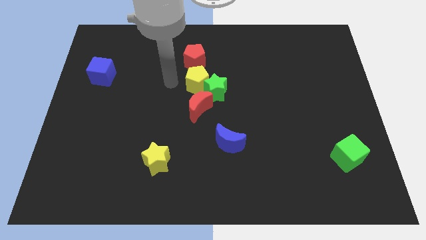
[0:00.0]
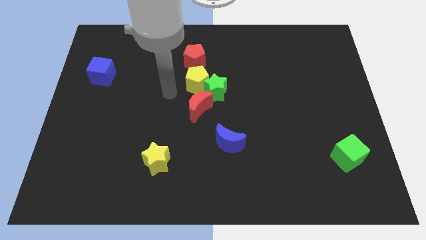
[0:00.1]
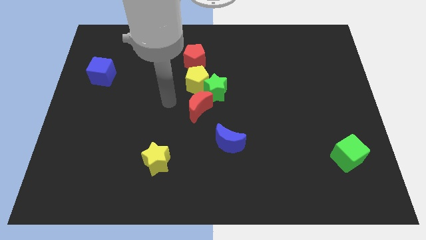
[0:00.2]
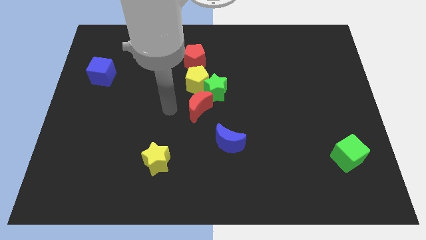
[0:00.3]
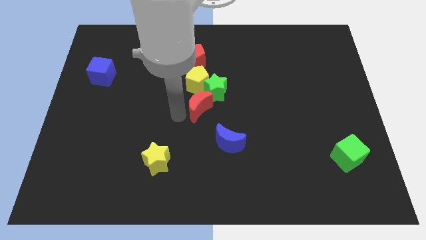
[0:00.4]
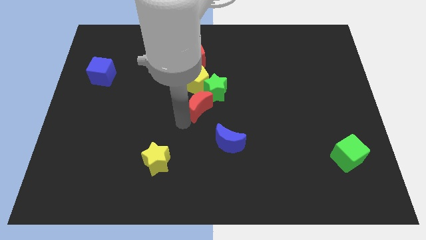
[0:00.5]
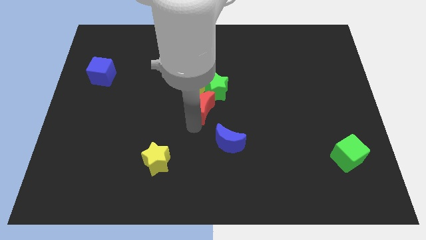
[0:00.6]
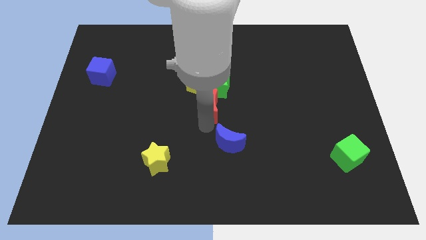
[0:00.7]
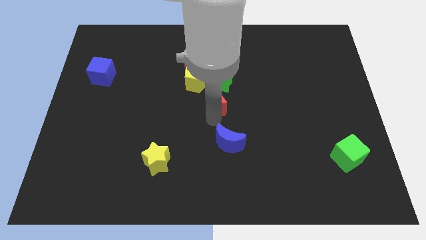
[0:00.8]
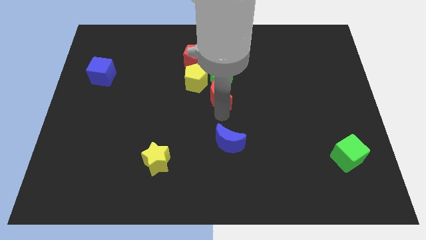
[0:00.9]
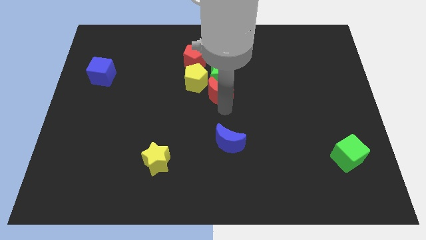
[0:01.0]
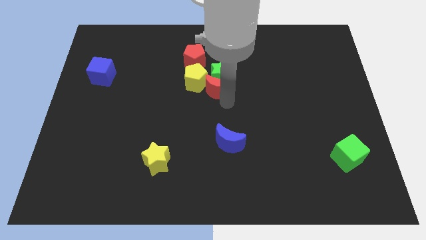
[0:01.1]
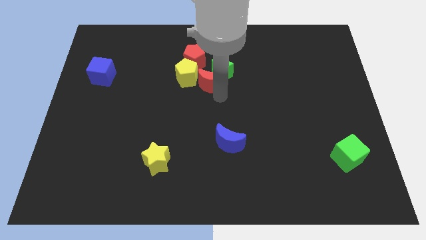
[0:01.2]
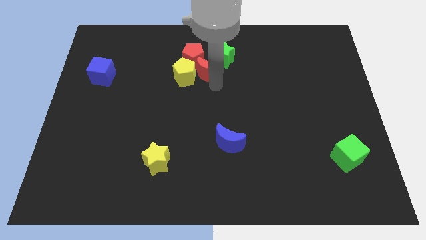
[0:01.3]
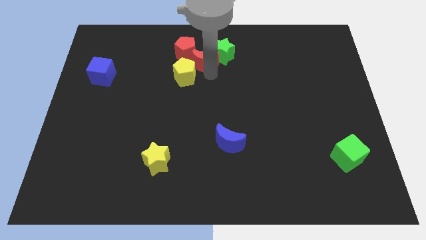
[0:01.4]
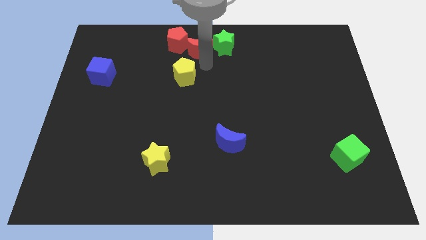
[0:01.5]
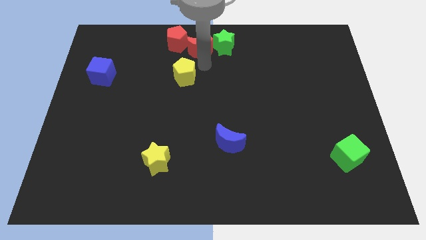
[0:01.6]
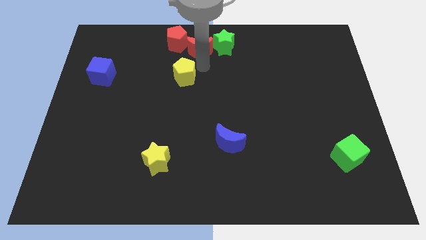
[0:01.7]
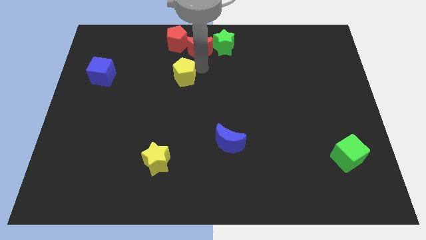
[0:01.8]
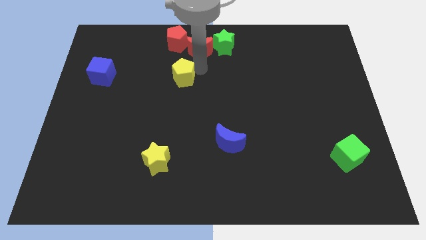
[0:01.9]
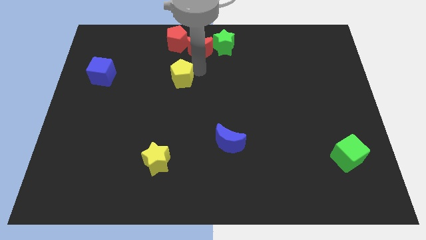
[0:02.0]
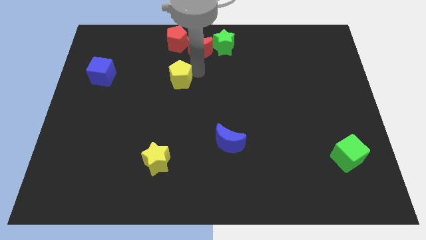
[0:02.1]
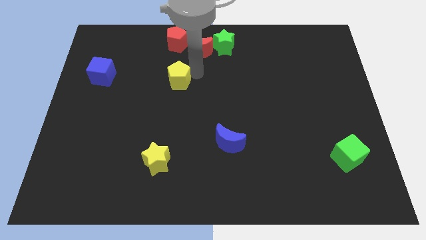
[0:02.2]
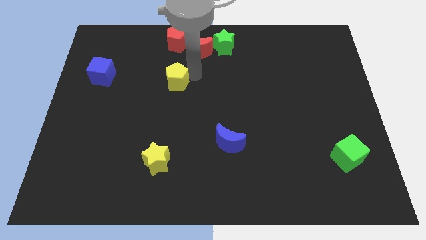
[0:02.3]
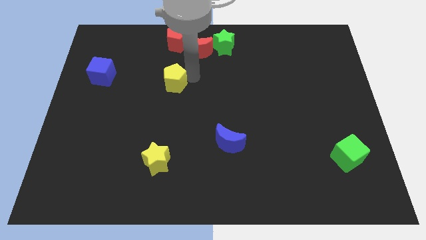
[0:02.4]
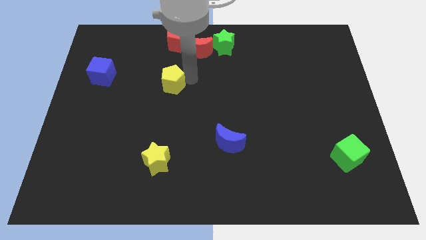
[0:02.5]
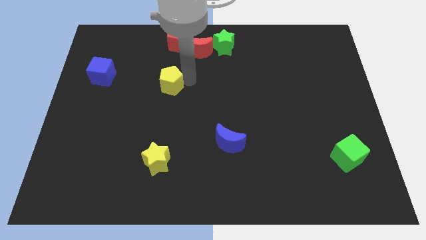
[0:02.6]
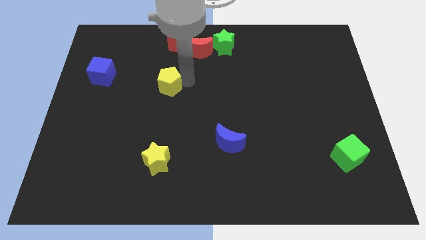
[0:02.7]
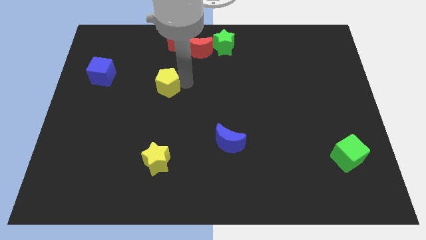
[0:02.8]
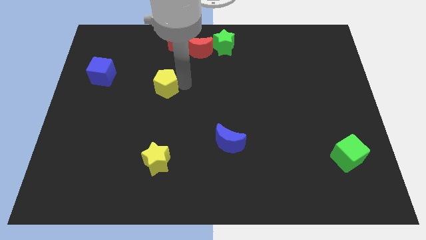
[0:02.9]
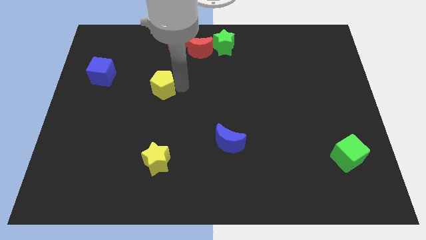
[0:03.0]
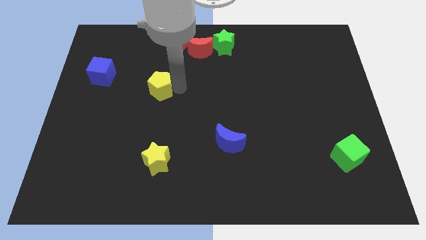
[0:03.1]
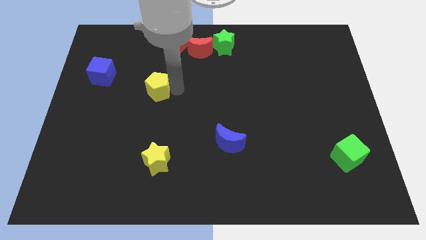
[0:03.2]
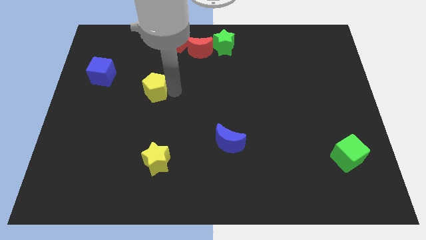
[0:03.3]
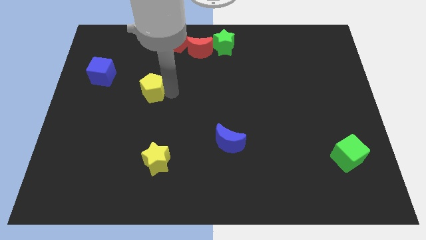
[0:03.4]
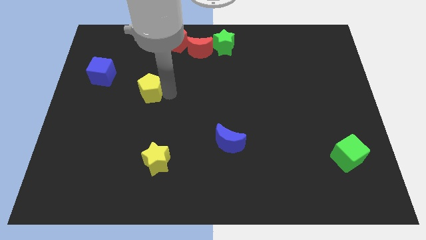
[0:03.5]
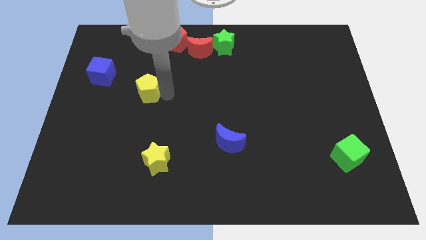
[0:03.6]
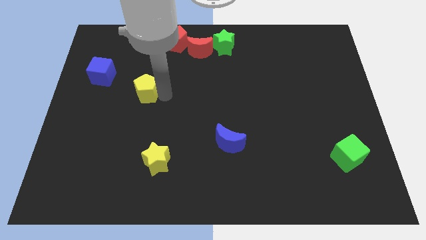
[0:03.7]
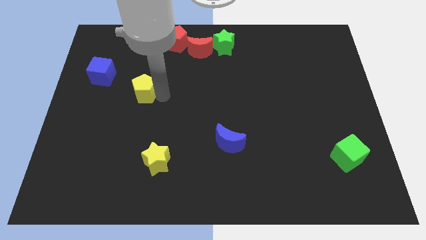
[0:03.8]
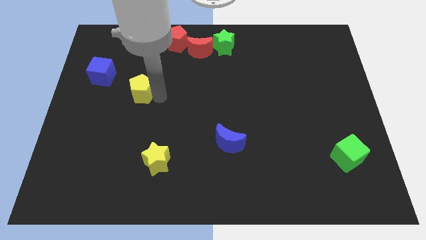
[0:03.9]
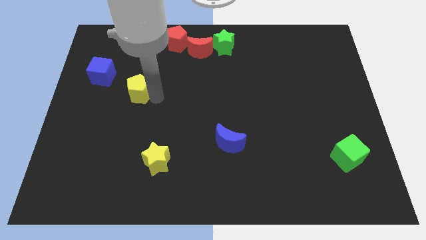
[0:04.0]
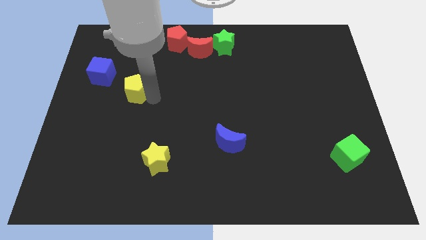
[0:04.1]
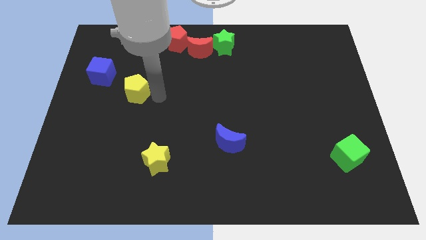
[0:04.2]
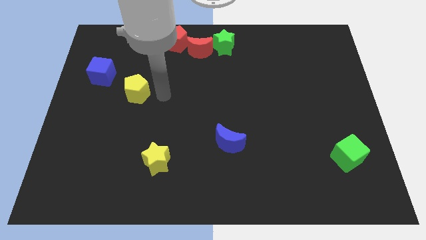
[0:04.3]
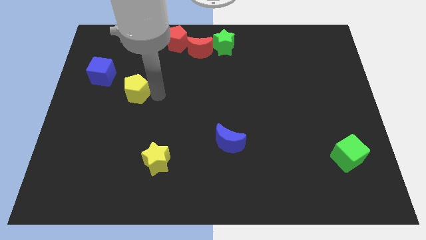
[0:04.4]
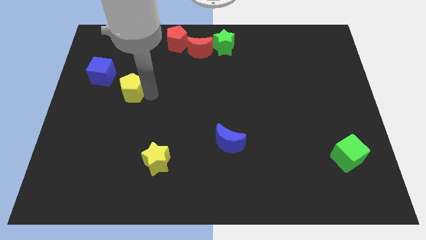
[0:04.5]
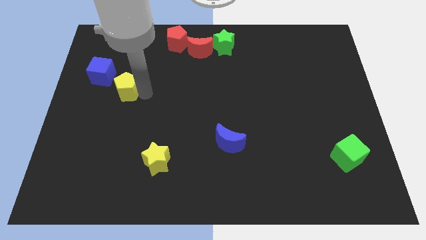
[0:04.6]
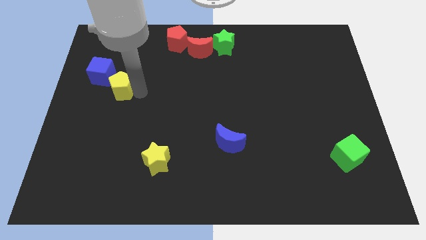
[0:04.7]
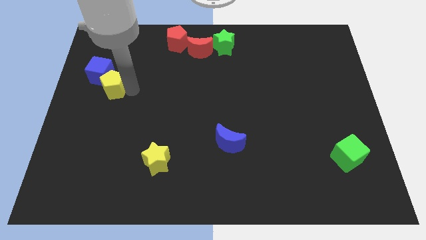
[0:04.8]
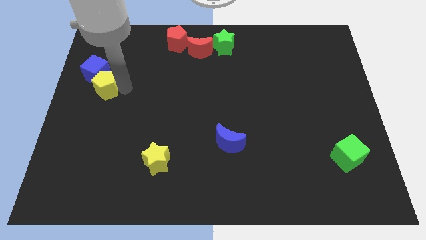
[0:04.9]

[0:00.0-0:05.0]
put the yellow pentagon to the left side
